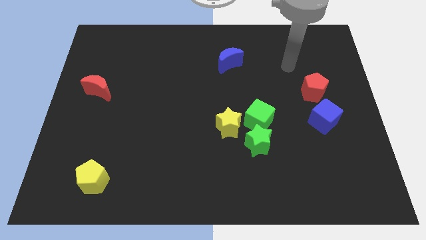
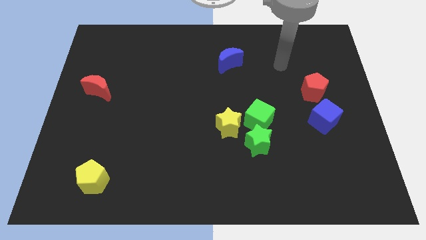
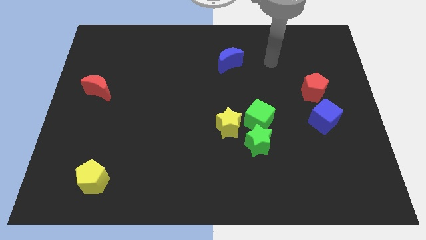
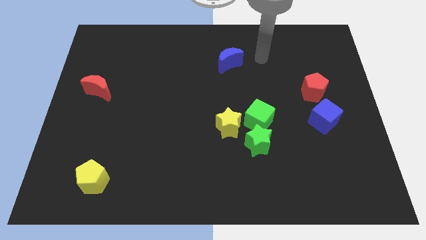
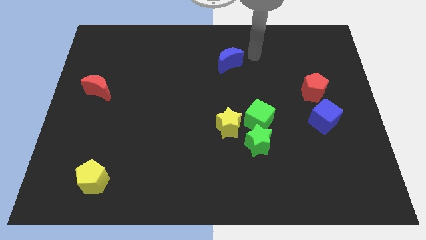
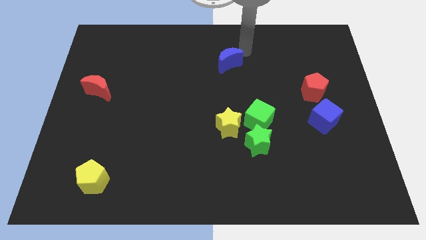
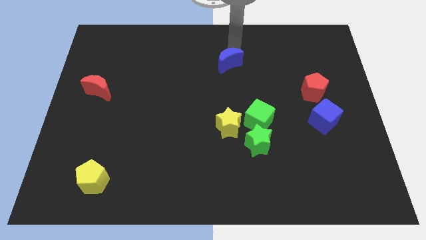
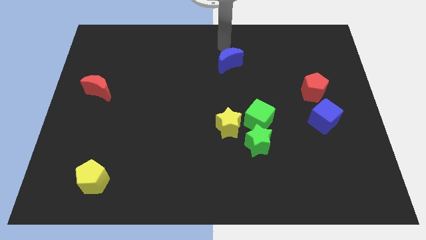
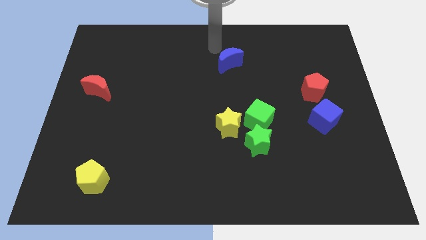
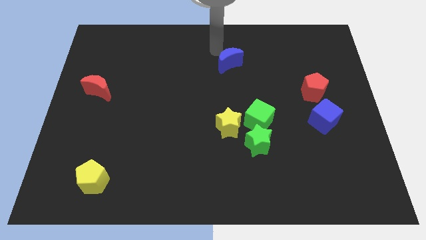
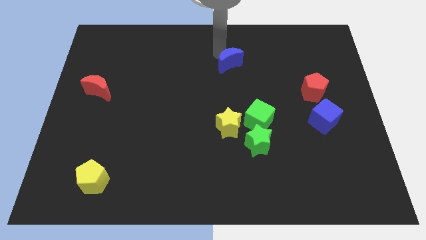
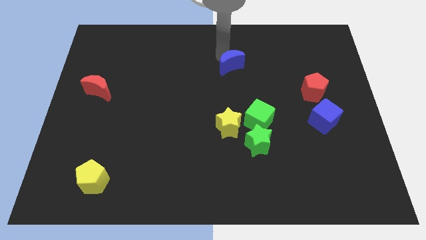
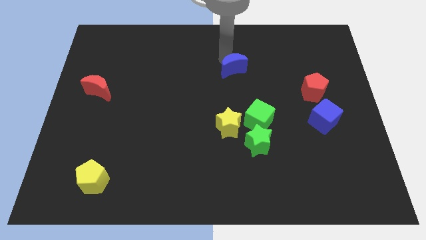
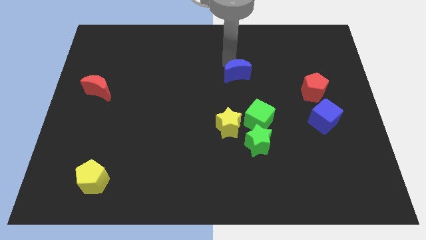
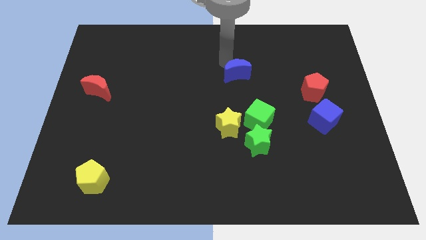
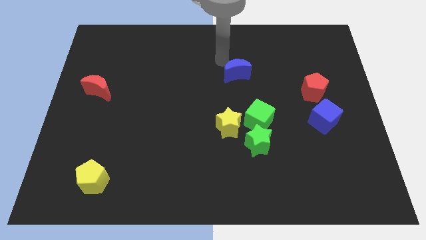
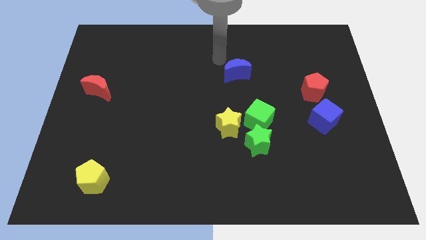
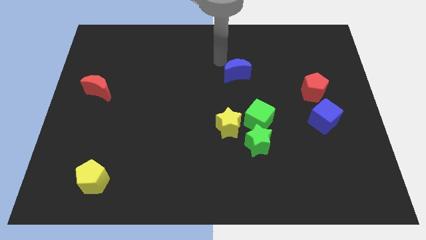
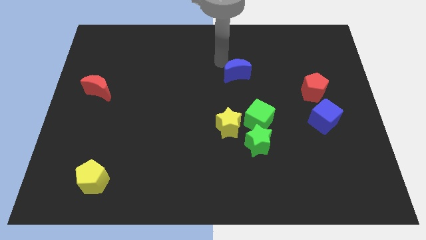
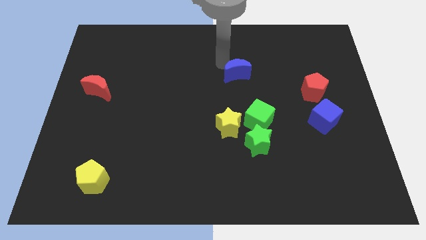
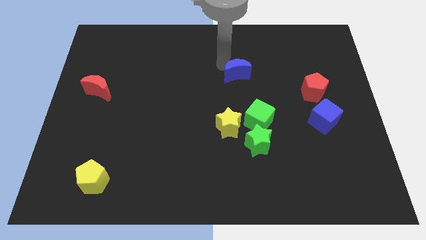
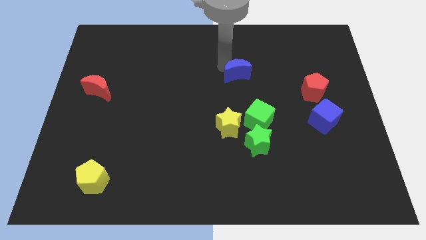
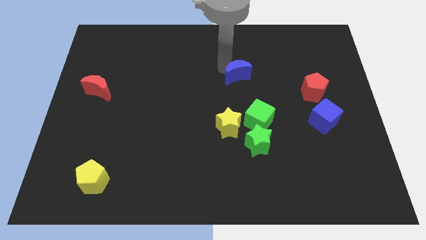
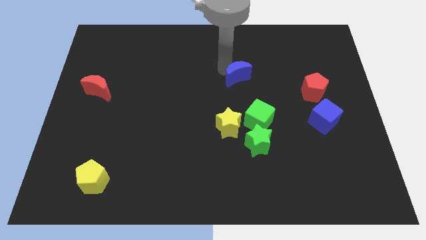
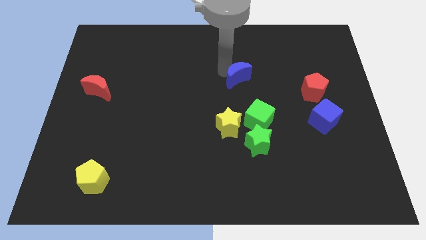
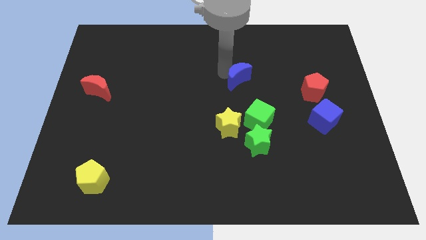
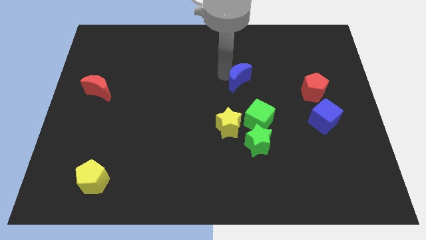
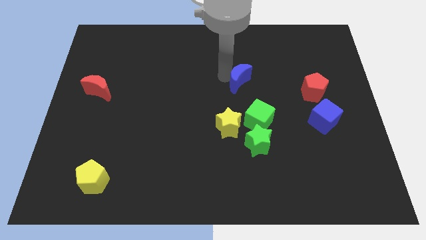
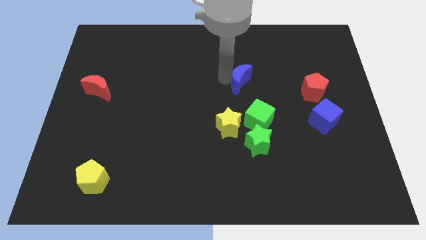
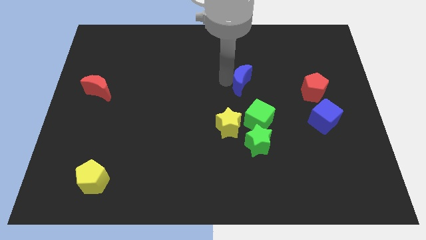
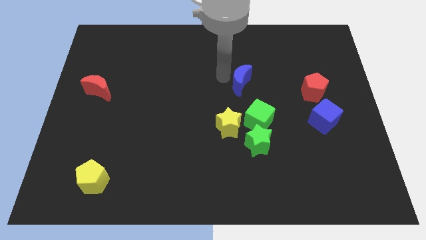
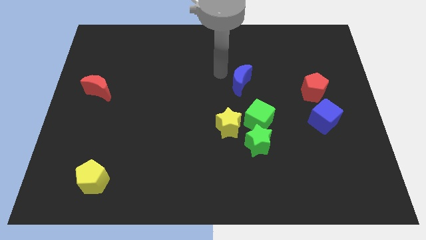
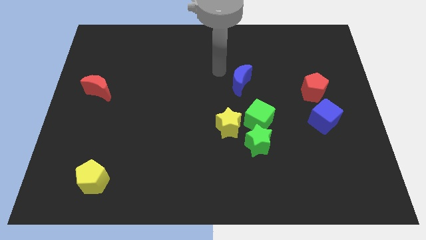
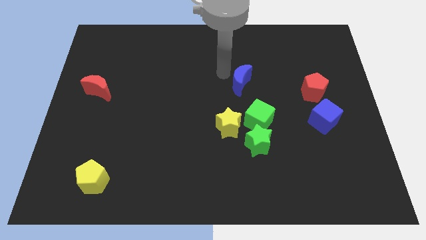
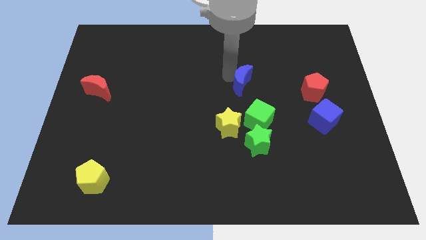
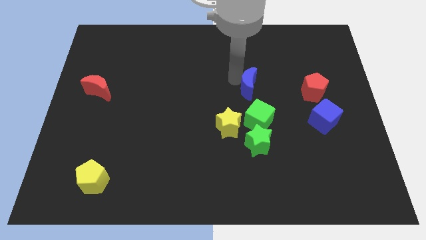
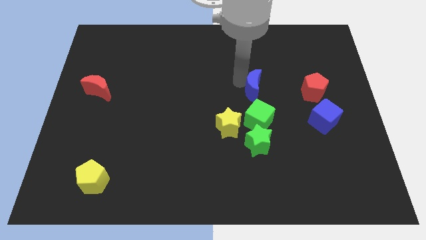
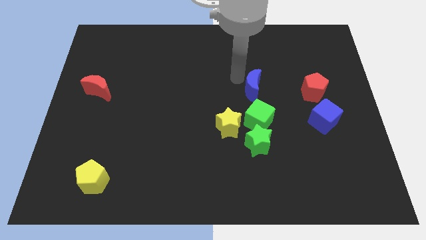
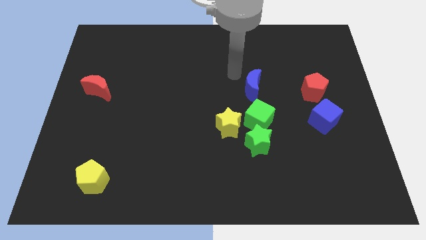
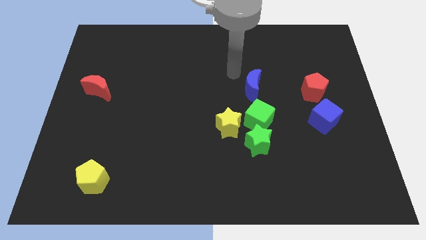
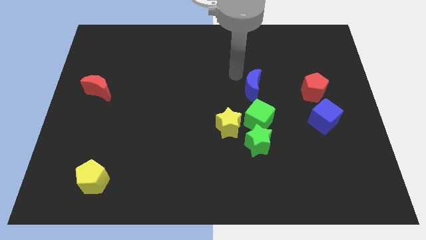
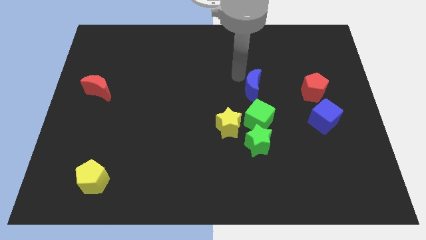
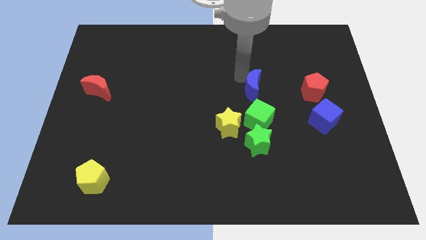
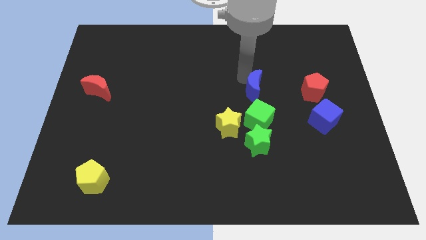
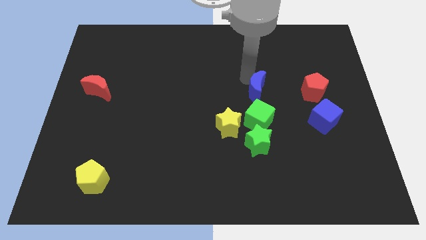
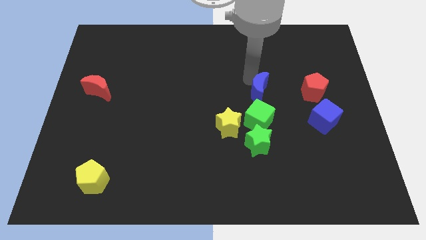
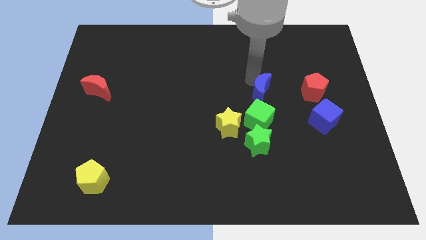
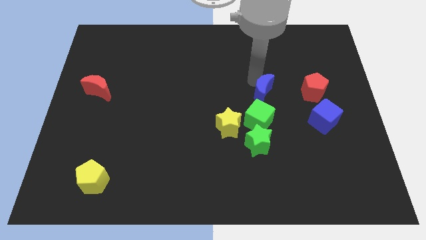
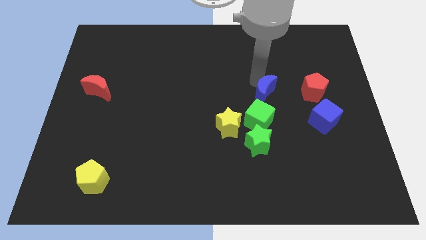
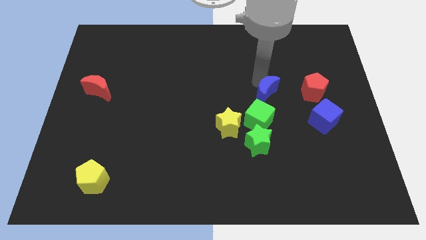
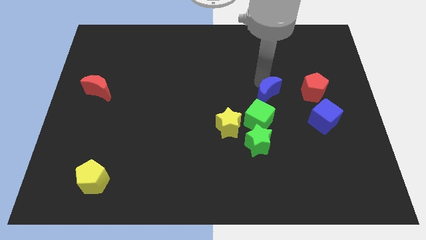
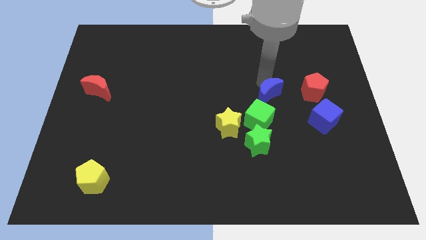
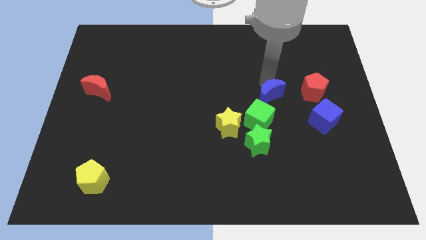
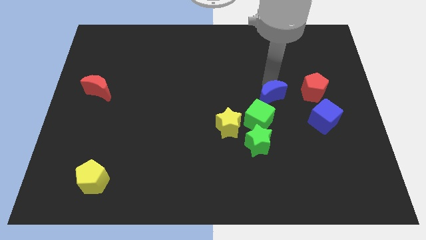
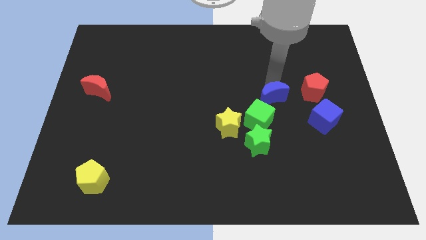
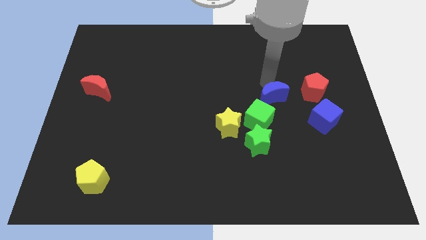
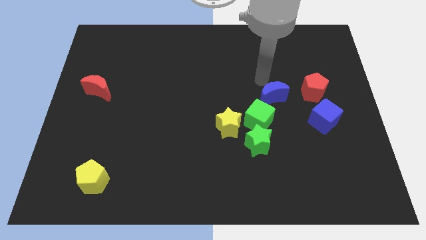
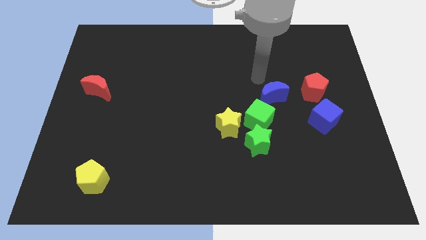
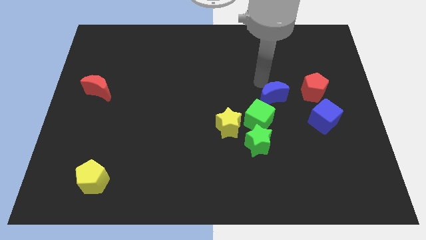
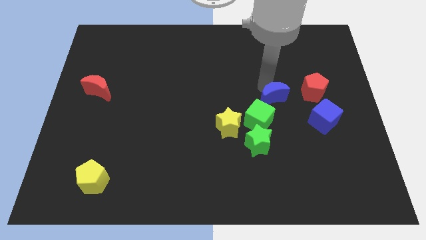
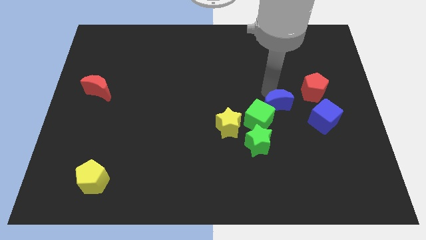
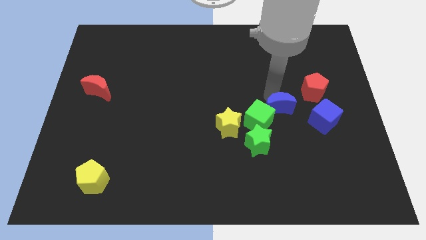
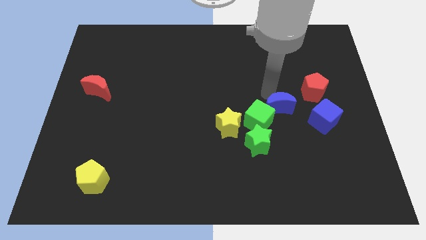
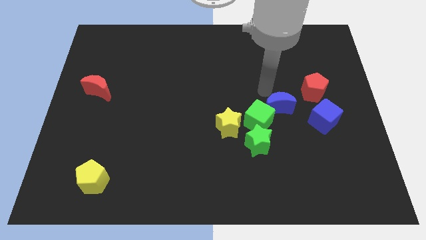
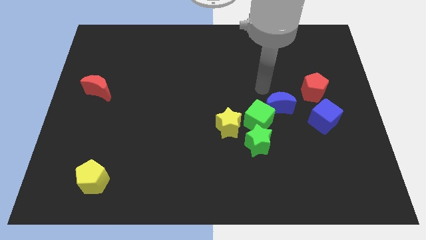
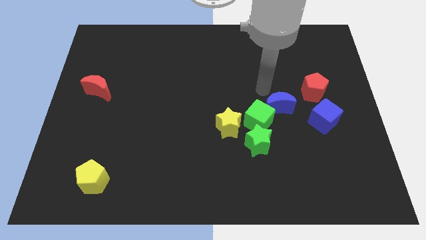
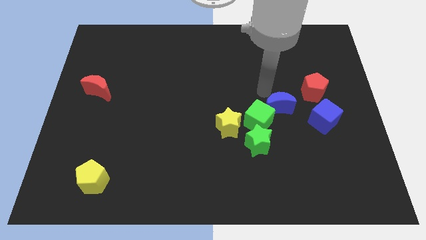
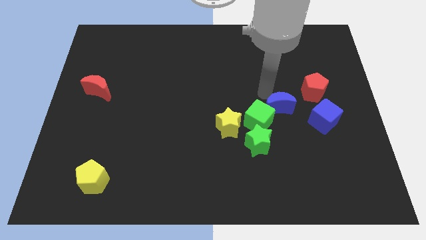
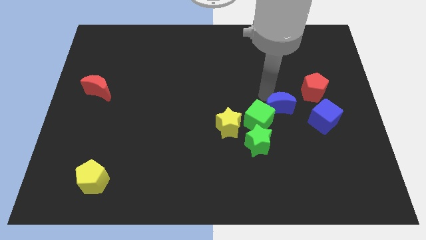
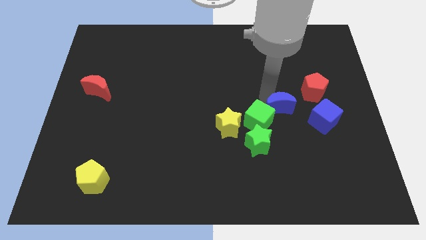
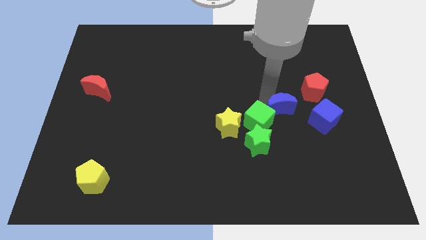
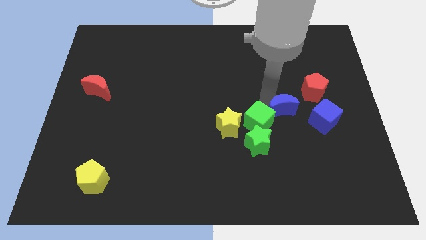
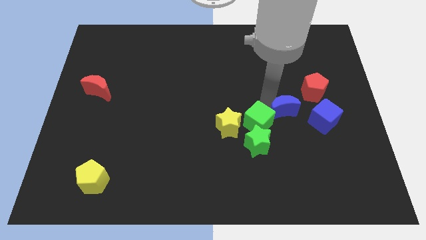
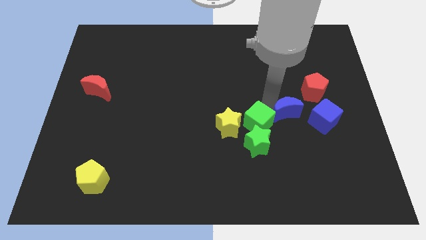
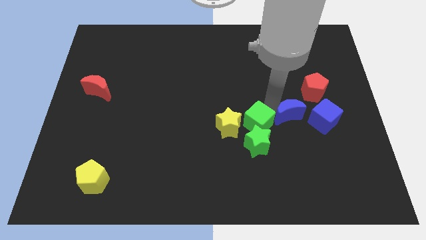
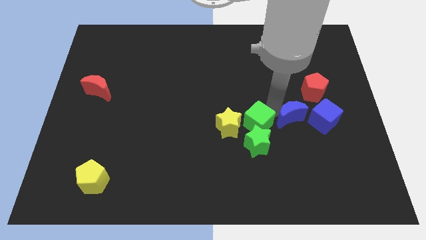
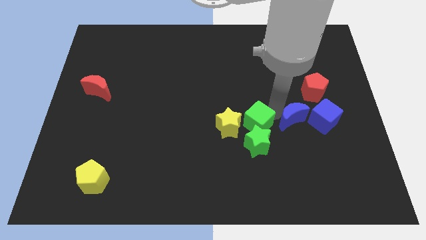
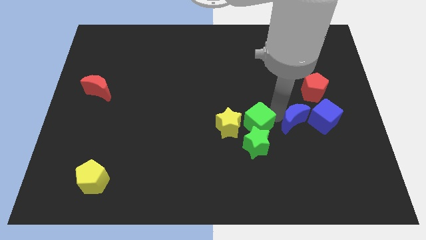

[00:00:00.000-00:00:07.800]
push the blue moon diagonally down and to the left of the blue cube

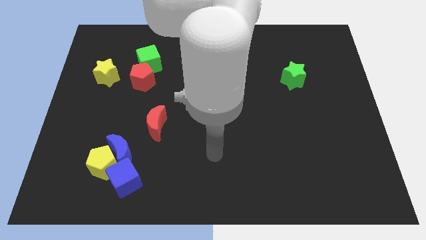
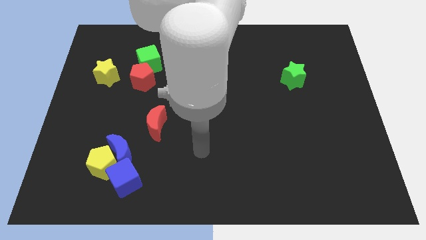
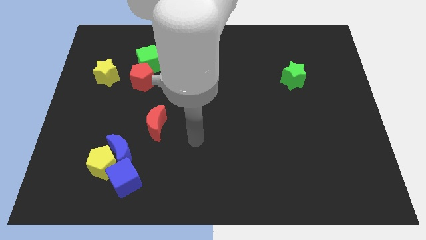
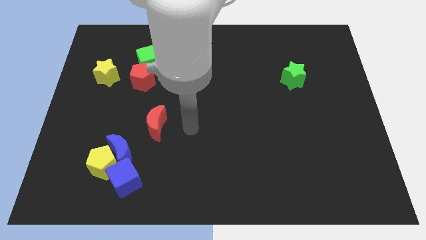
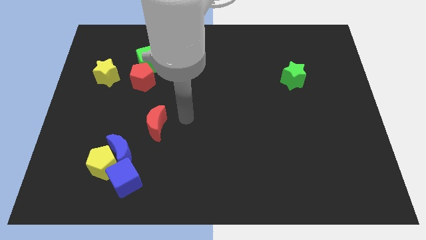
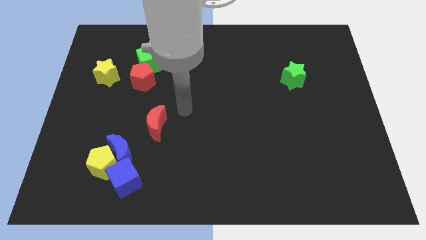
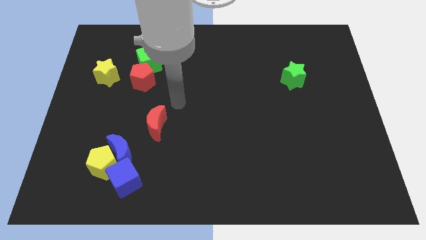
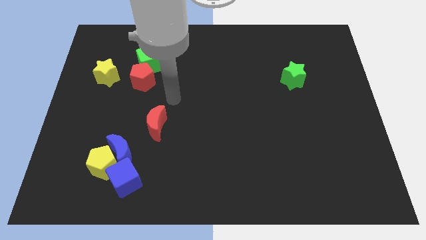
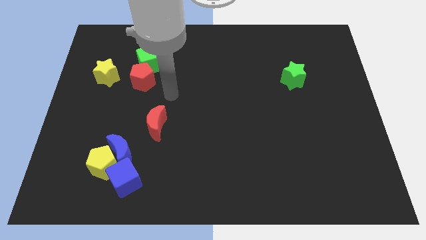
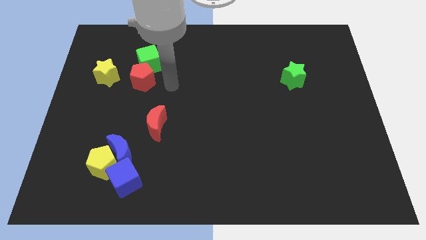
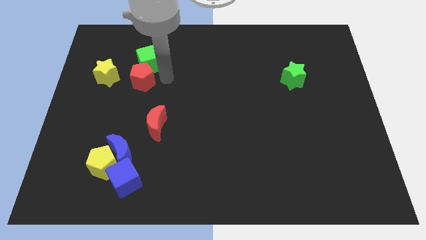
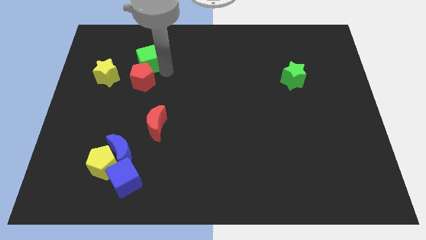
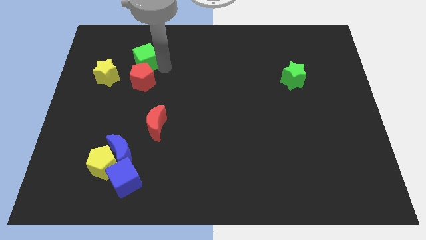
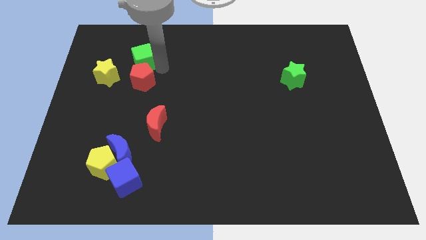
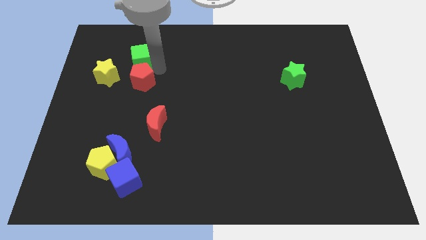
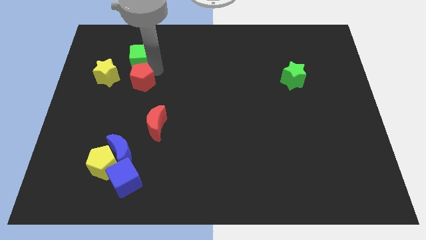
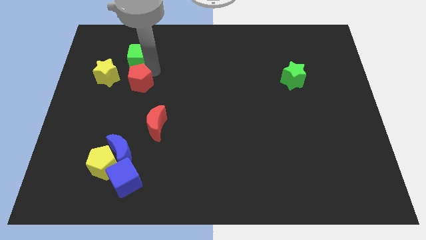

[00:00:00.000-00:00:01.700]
slide the red pentagon to the bottom right of the yellow star
